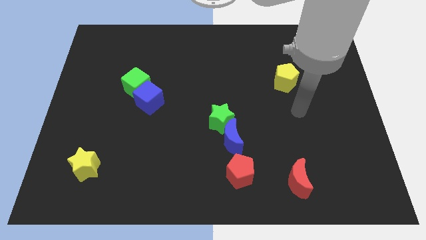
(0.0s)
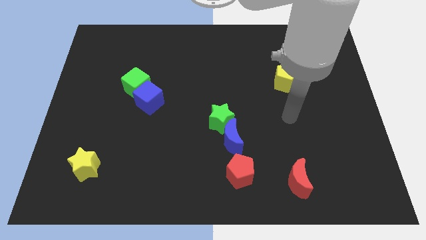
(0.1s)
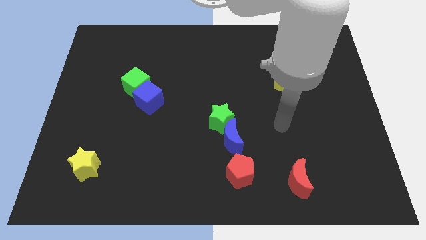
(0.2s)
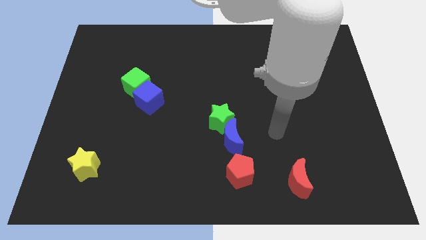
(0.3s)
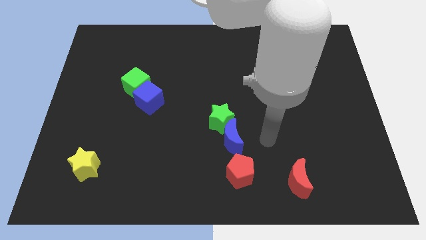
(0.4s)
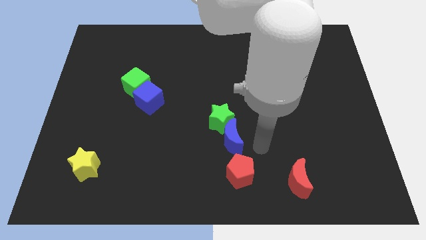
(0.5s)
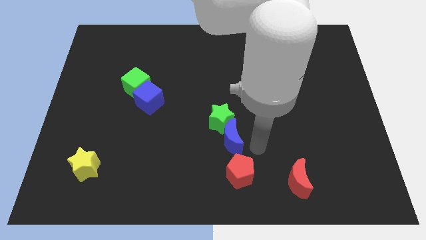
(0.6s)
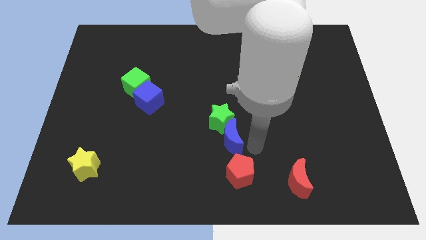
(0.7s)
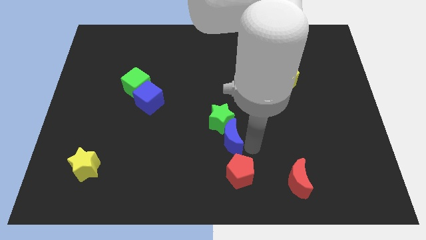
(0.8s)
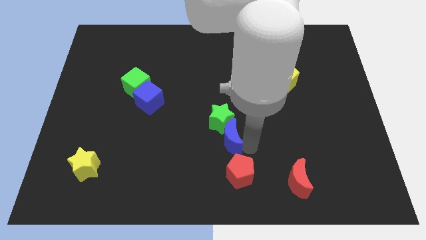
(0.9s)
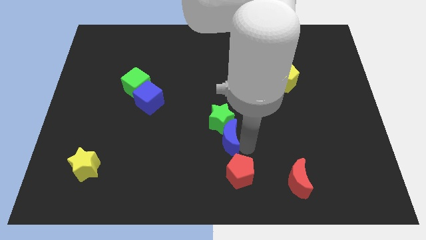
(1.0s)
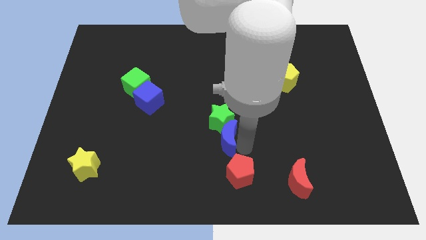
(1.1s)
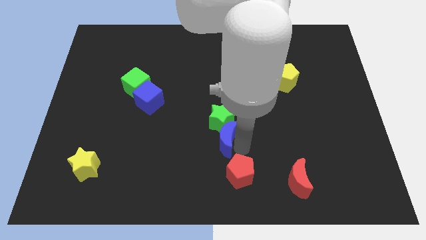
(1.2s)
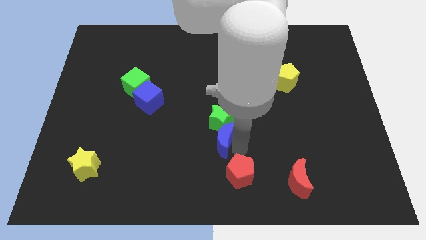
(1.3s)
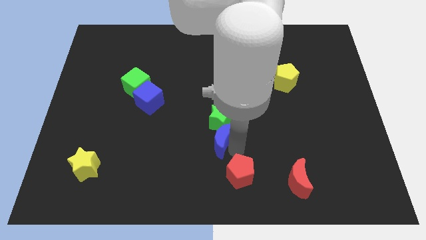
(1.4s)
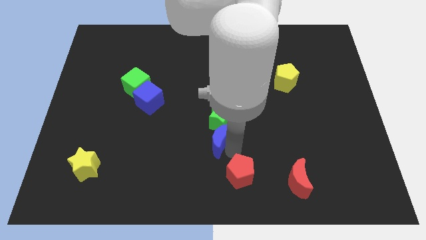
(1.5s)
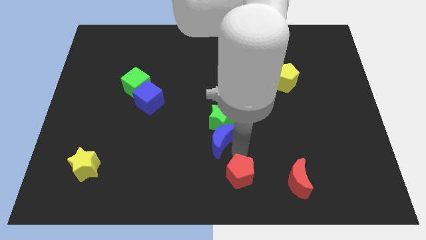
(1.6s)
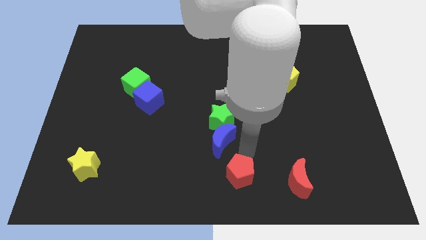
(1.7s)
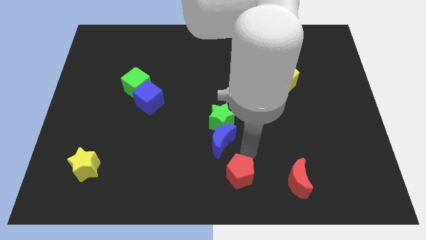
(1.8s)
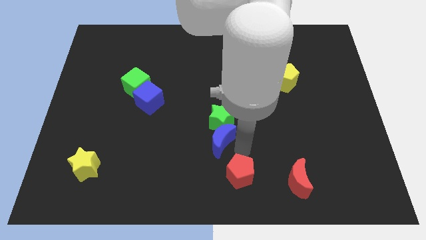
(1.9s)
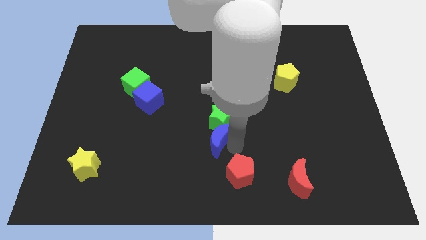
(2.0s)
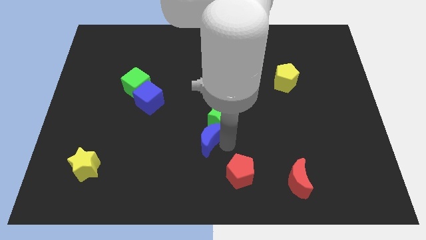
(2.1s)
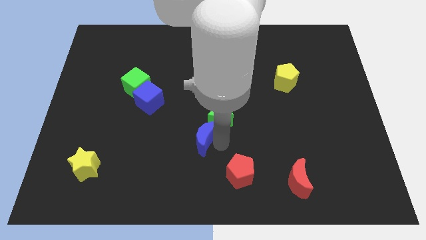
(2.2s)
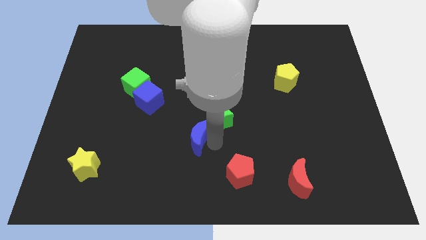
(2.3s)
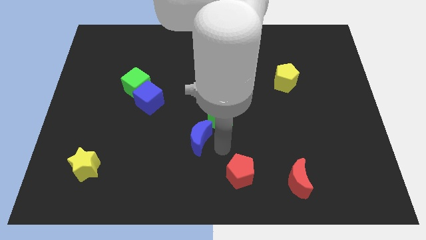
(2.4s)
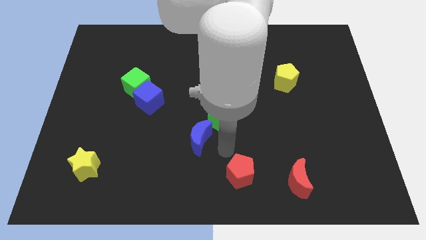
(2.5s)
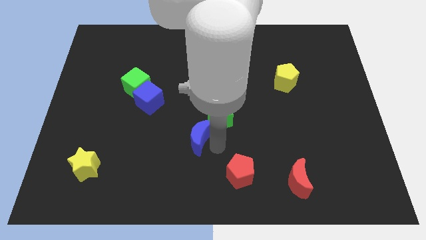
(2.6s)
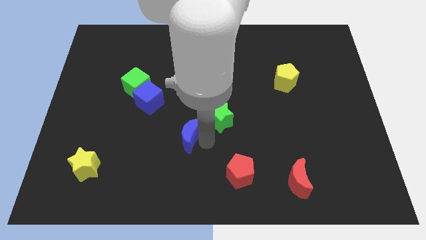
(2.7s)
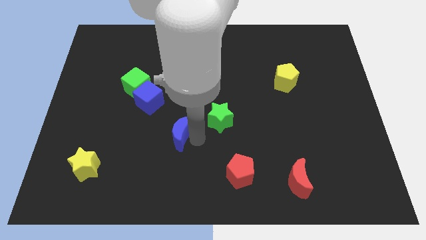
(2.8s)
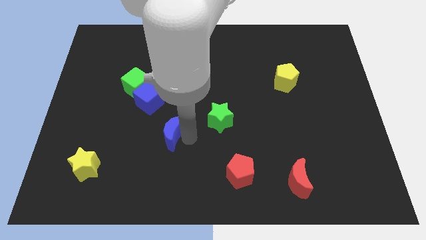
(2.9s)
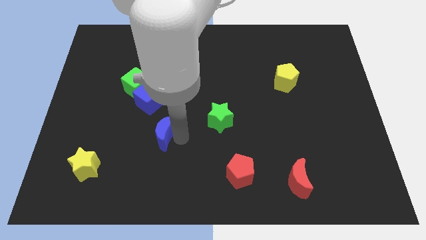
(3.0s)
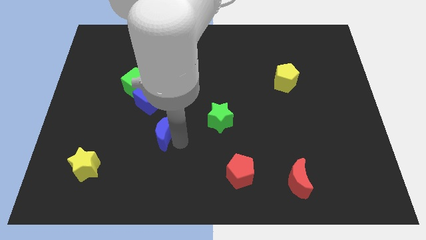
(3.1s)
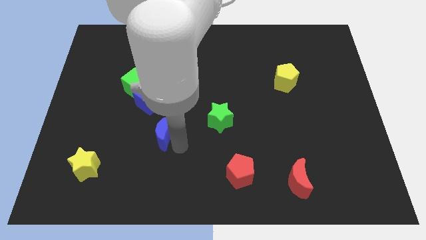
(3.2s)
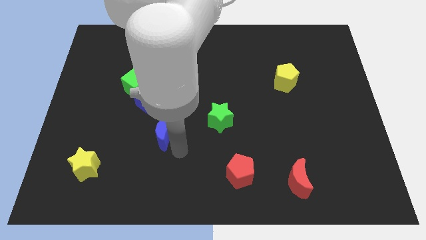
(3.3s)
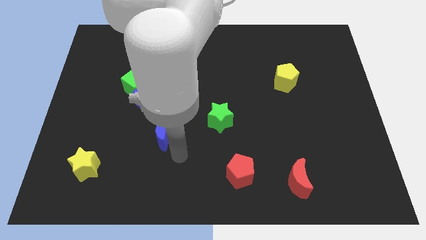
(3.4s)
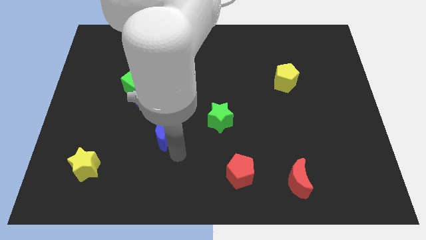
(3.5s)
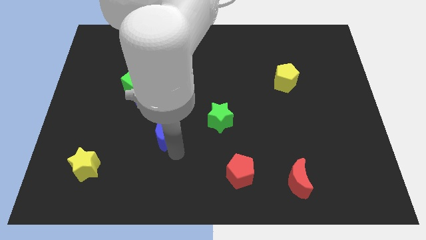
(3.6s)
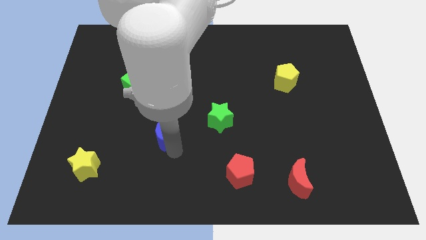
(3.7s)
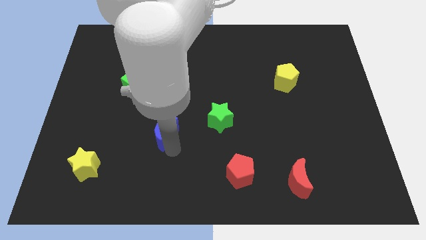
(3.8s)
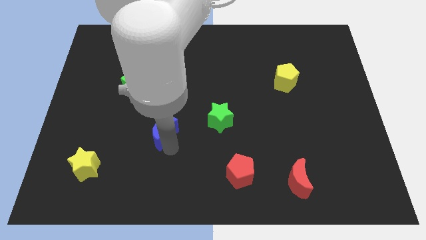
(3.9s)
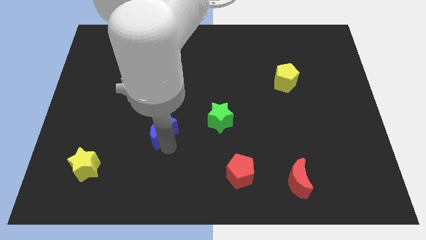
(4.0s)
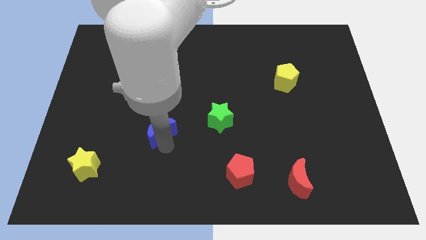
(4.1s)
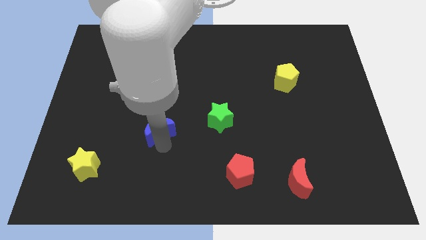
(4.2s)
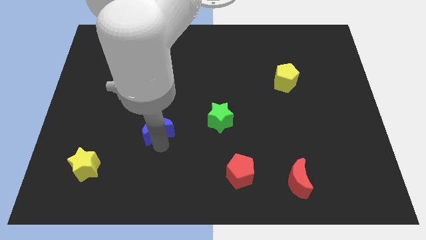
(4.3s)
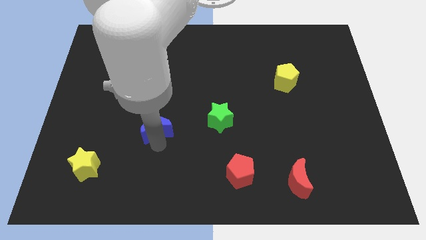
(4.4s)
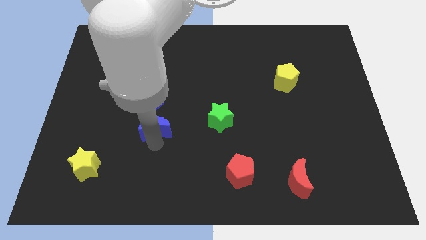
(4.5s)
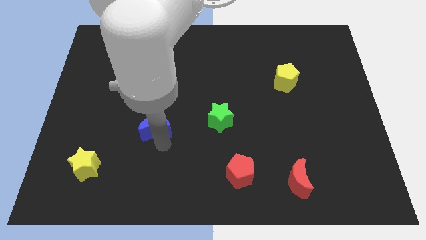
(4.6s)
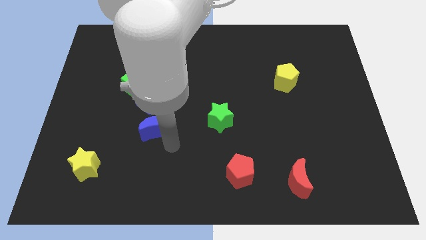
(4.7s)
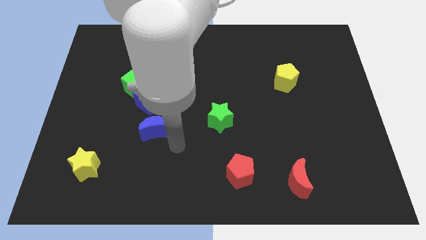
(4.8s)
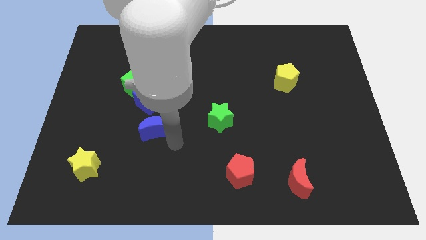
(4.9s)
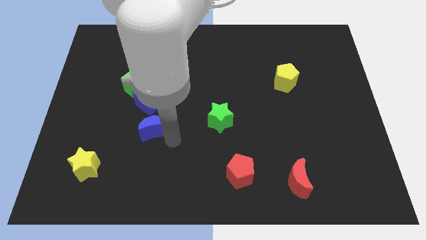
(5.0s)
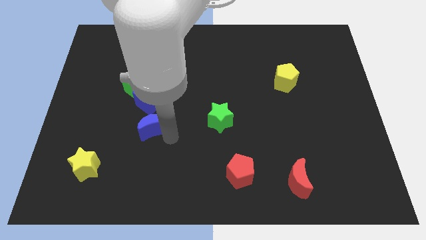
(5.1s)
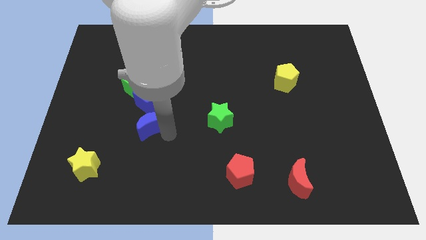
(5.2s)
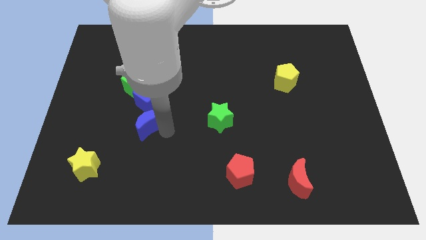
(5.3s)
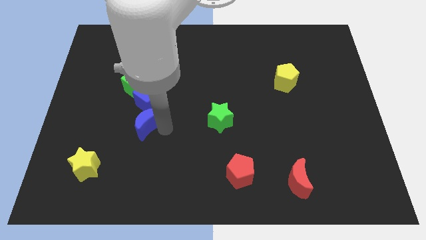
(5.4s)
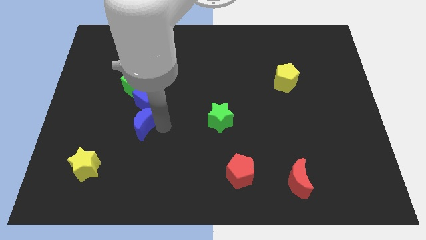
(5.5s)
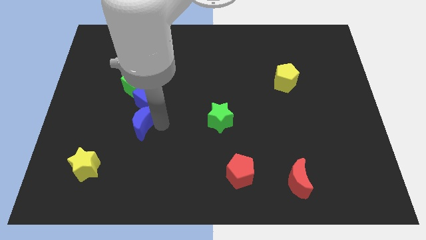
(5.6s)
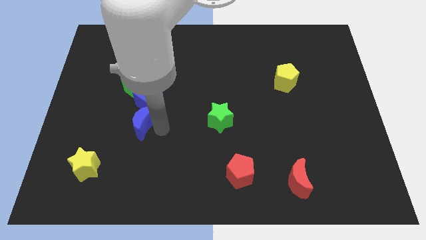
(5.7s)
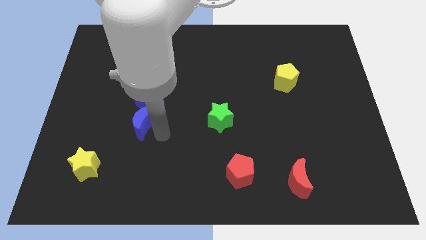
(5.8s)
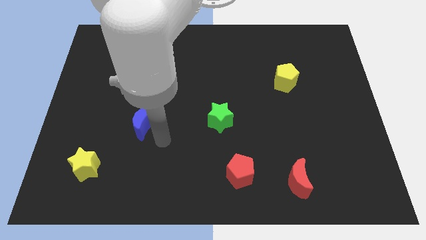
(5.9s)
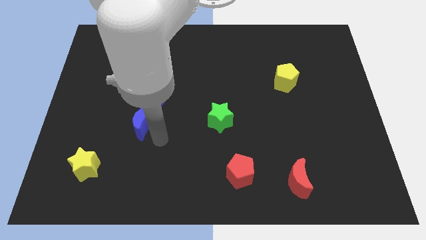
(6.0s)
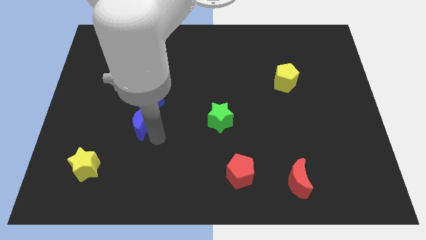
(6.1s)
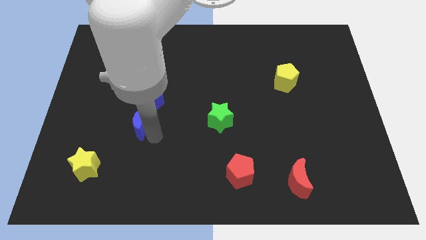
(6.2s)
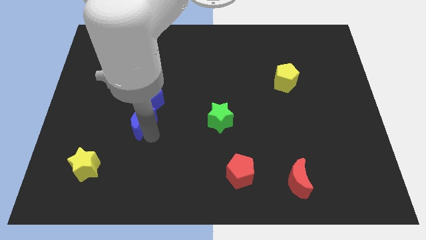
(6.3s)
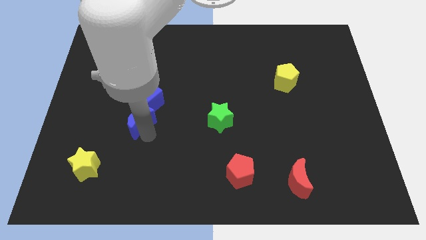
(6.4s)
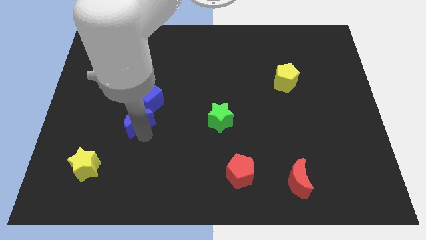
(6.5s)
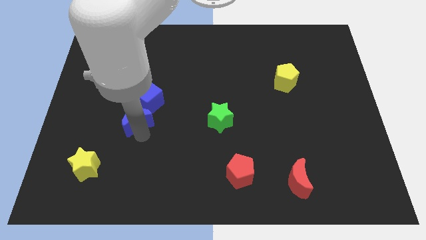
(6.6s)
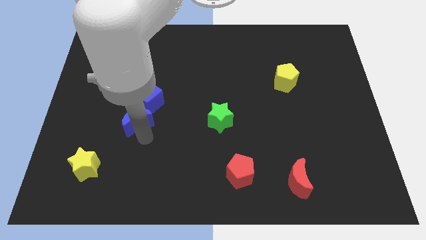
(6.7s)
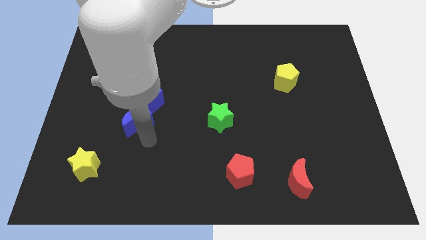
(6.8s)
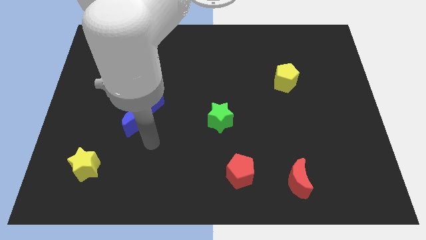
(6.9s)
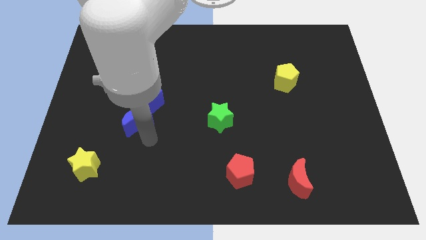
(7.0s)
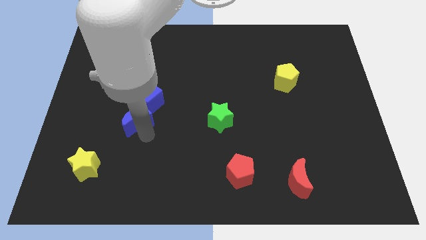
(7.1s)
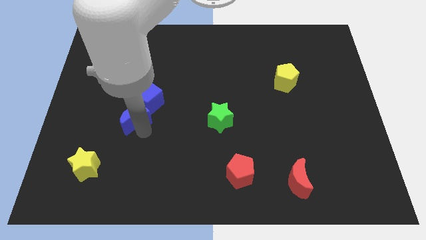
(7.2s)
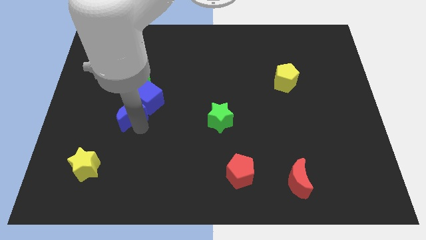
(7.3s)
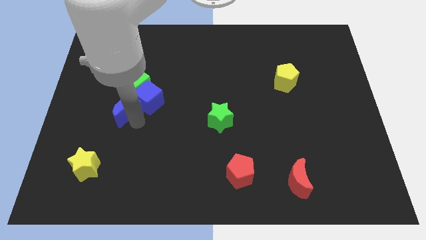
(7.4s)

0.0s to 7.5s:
push the blue moon diagonally down and to the left of the green cube
